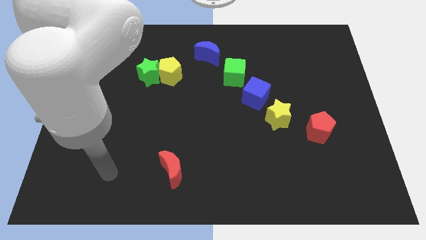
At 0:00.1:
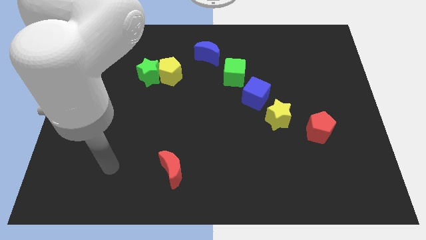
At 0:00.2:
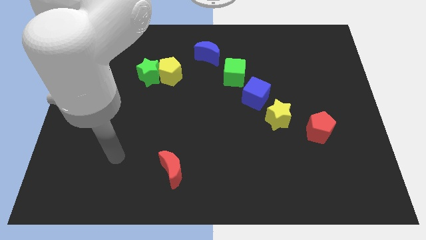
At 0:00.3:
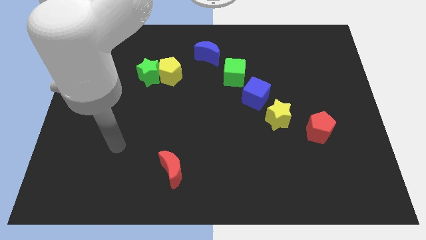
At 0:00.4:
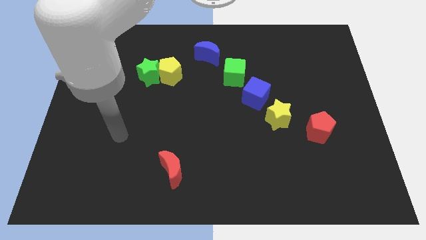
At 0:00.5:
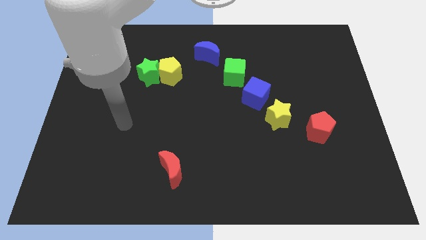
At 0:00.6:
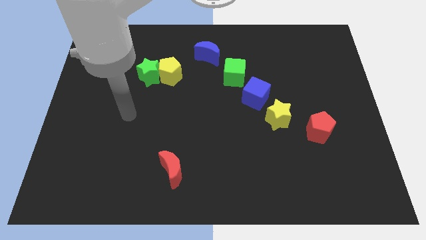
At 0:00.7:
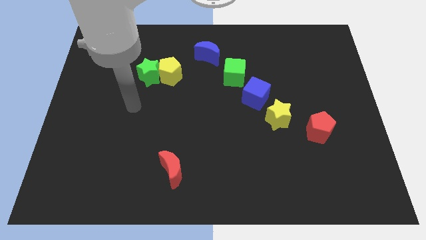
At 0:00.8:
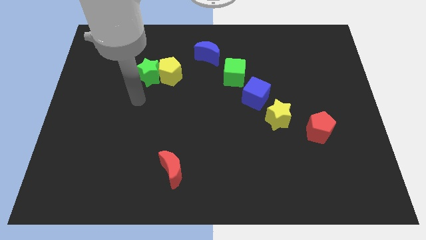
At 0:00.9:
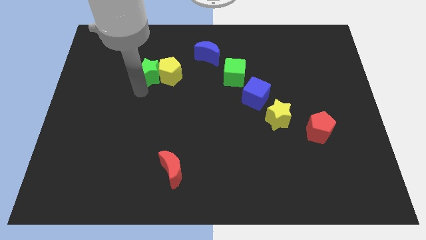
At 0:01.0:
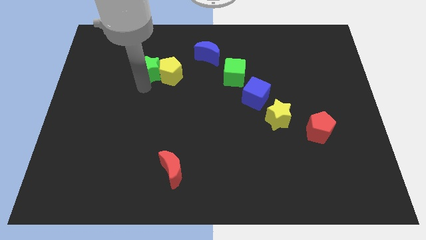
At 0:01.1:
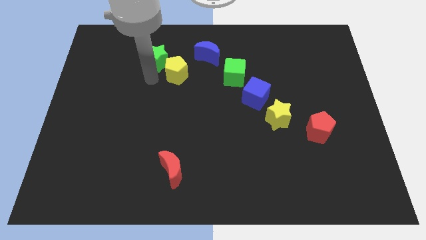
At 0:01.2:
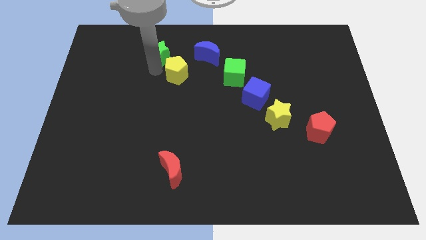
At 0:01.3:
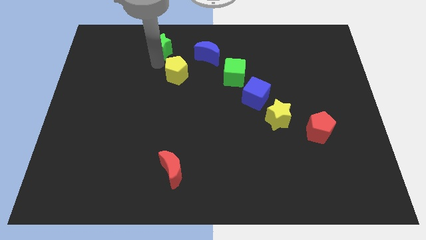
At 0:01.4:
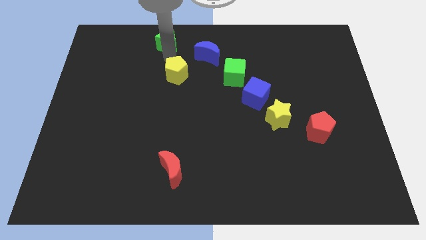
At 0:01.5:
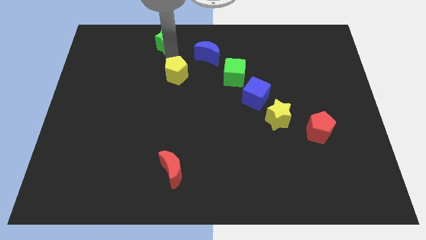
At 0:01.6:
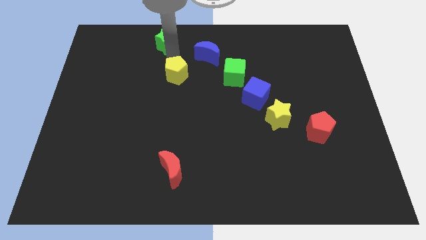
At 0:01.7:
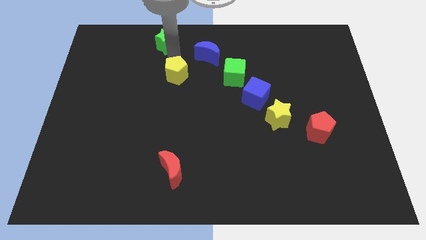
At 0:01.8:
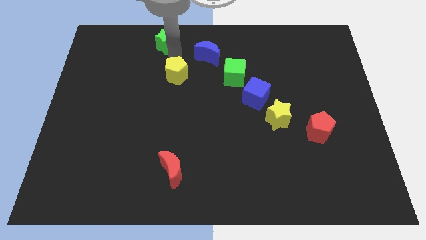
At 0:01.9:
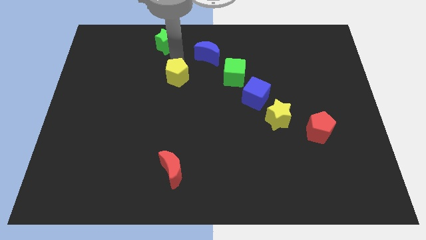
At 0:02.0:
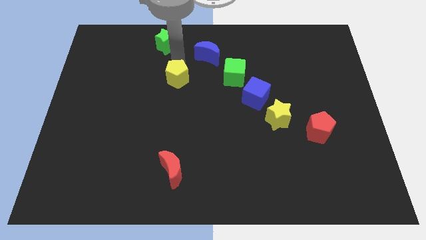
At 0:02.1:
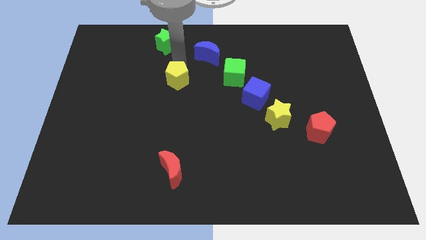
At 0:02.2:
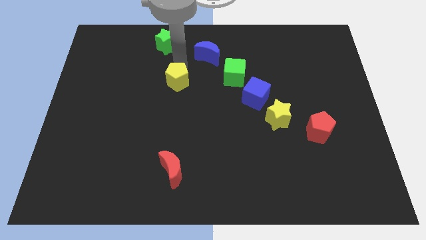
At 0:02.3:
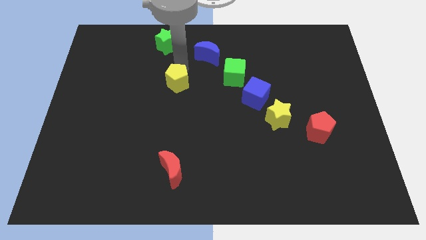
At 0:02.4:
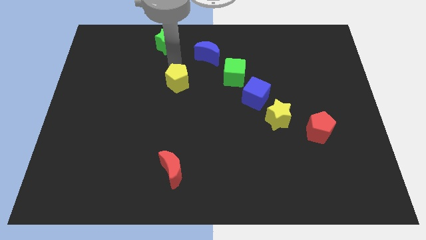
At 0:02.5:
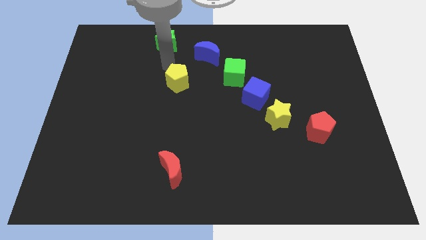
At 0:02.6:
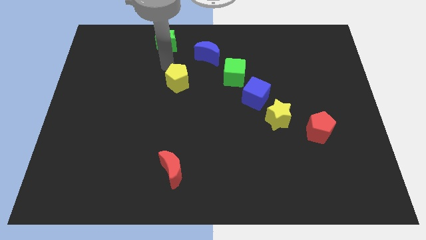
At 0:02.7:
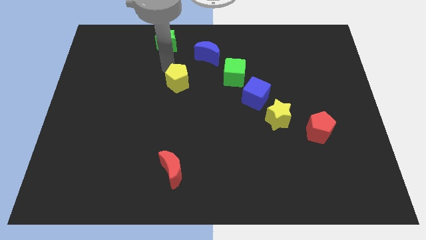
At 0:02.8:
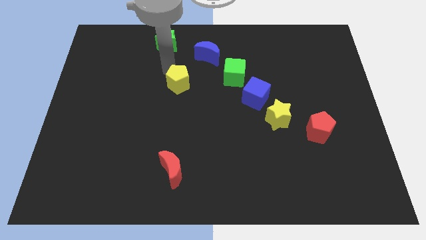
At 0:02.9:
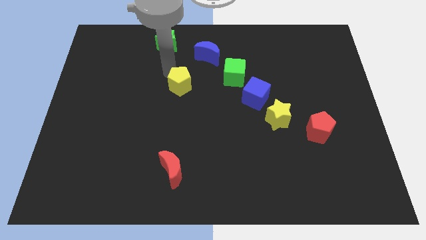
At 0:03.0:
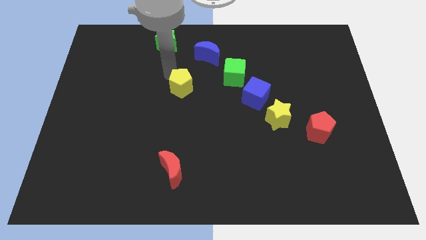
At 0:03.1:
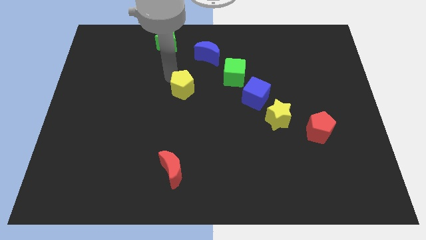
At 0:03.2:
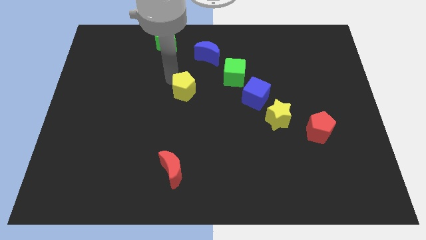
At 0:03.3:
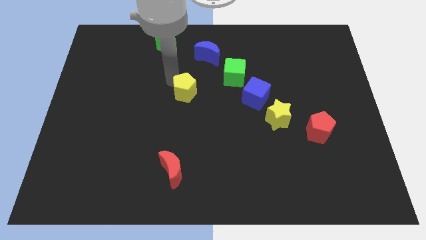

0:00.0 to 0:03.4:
slide the yellow pentagon a little bit down and to the right

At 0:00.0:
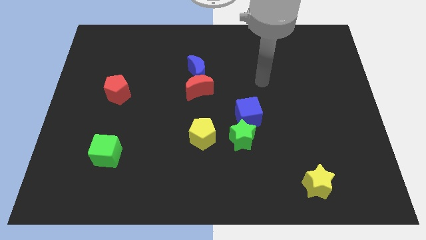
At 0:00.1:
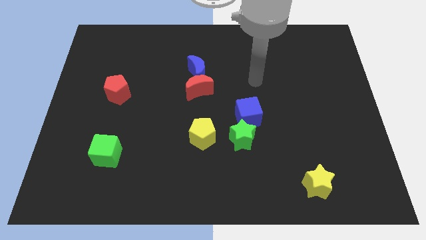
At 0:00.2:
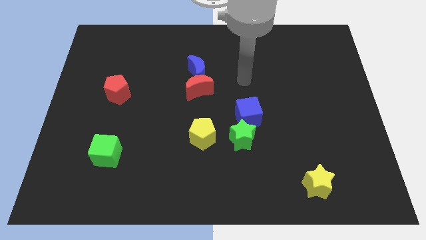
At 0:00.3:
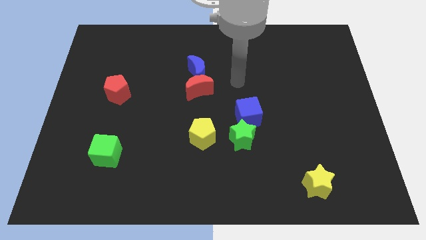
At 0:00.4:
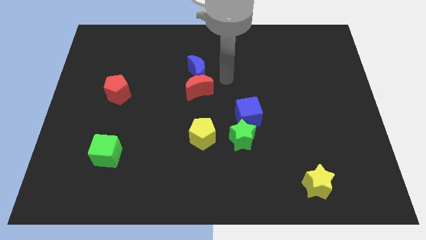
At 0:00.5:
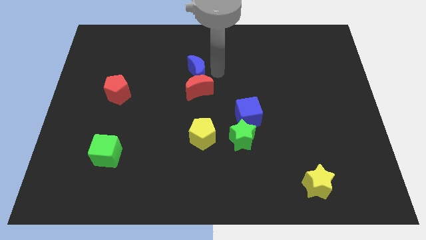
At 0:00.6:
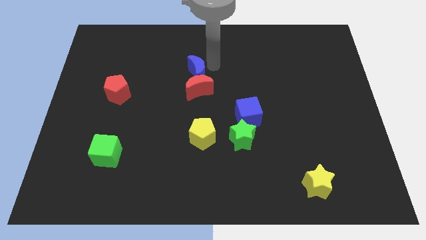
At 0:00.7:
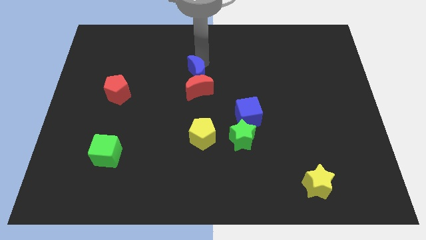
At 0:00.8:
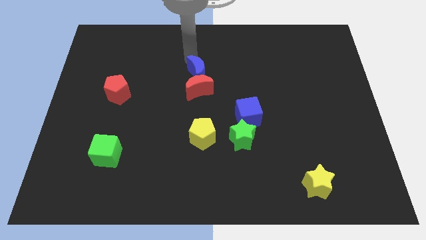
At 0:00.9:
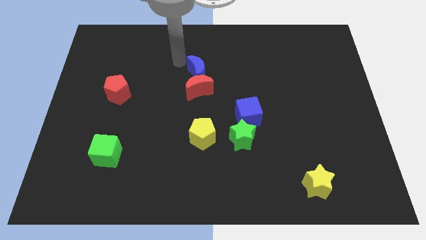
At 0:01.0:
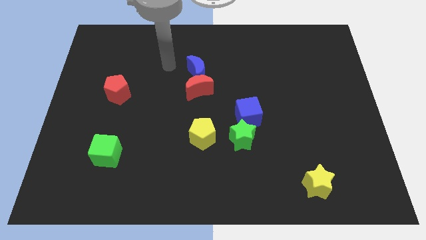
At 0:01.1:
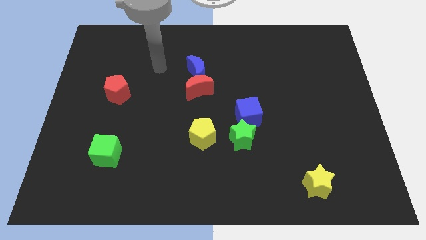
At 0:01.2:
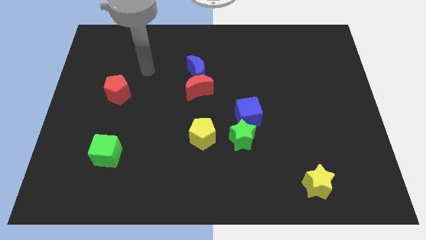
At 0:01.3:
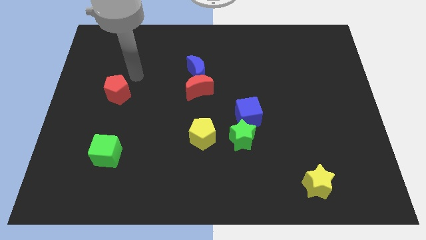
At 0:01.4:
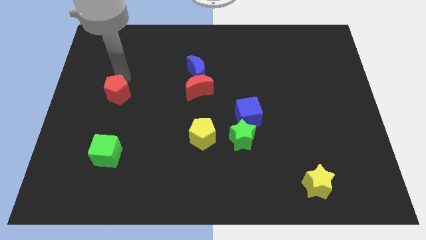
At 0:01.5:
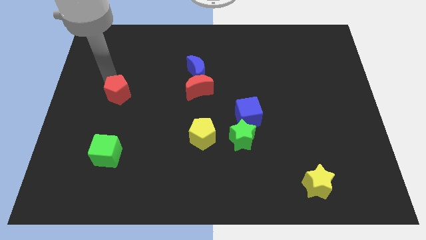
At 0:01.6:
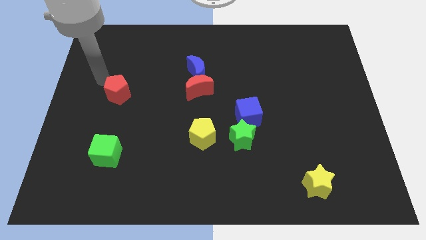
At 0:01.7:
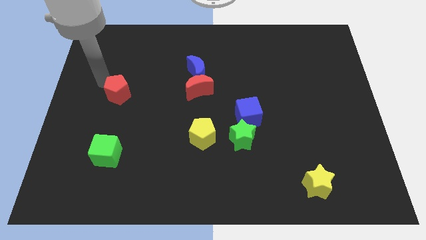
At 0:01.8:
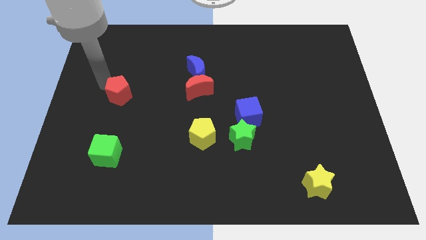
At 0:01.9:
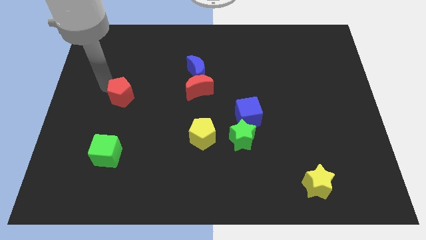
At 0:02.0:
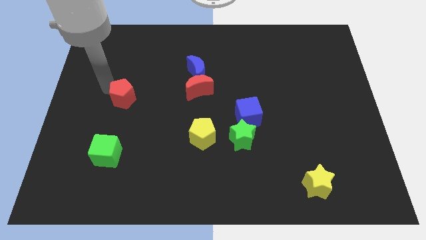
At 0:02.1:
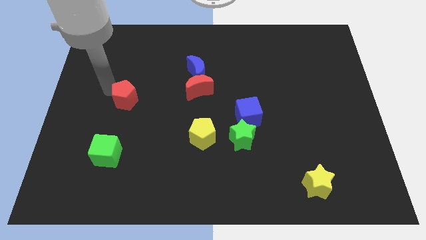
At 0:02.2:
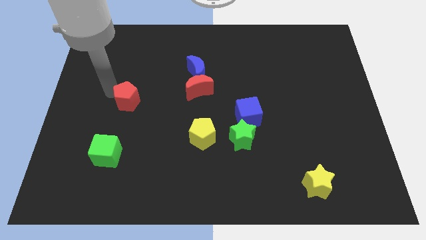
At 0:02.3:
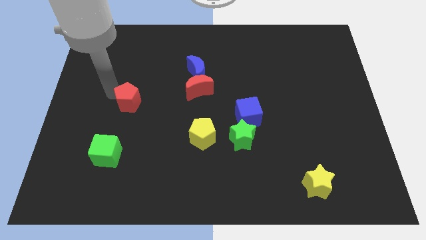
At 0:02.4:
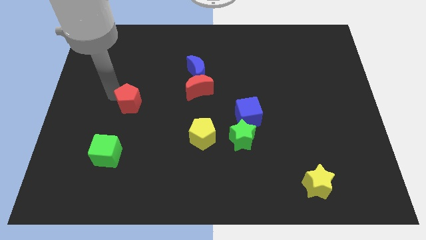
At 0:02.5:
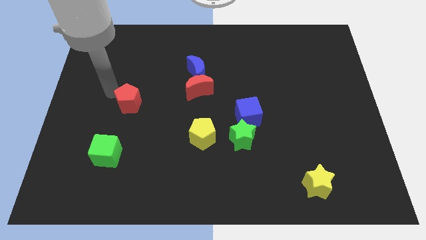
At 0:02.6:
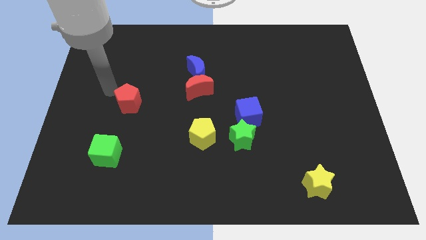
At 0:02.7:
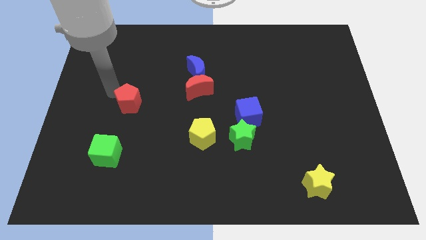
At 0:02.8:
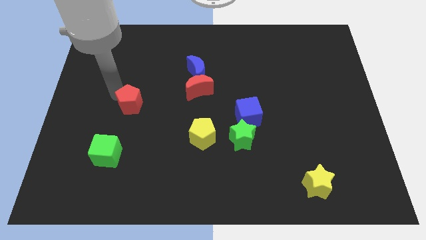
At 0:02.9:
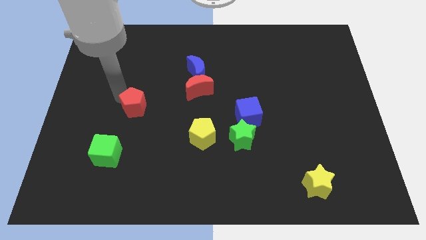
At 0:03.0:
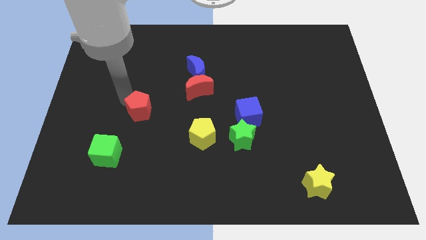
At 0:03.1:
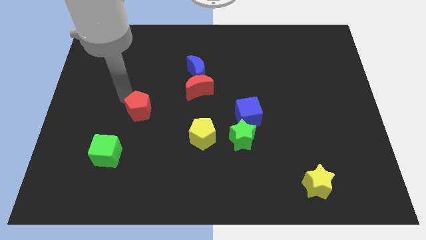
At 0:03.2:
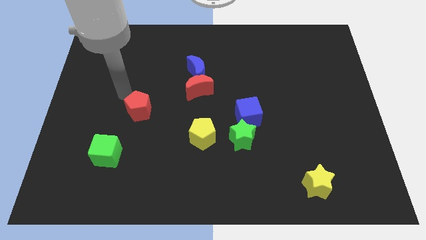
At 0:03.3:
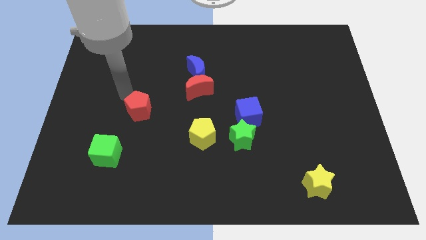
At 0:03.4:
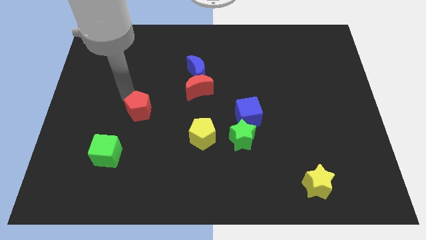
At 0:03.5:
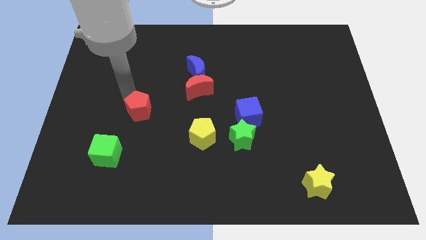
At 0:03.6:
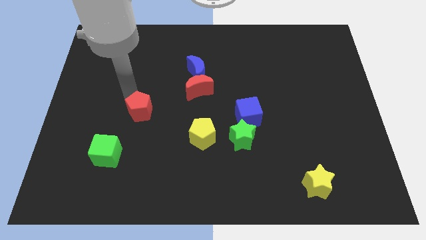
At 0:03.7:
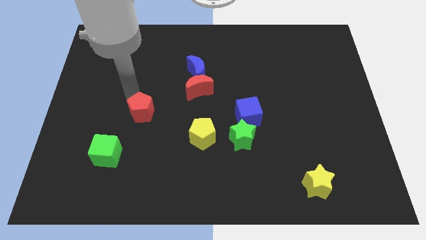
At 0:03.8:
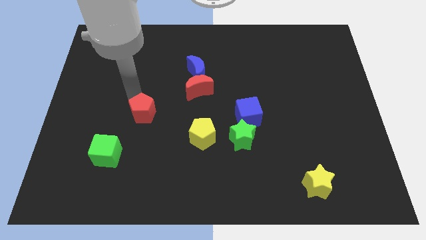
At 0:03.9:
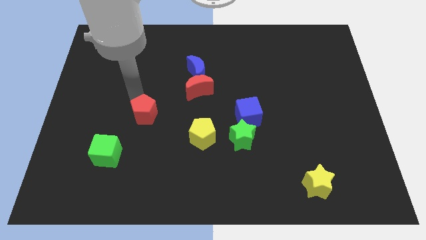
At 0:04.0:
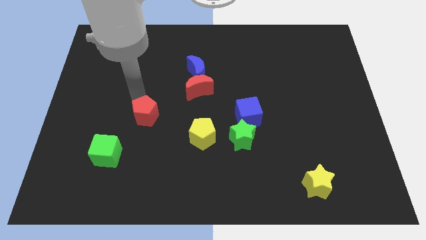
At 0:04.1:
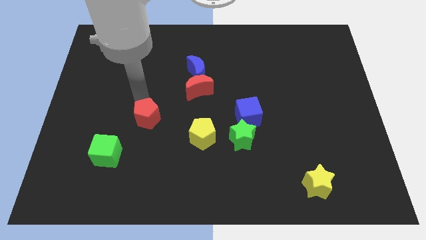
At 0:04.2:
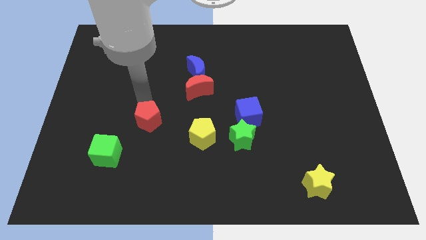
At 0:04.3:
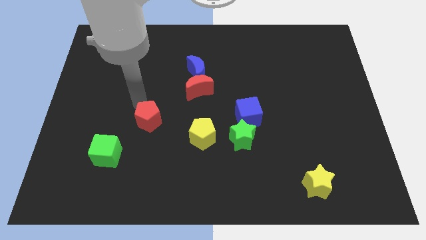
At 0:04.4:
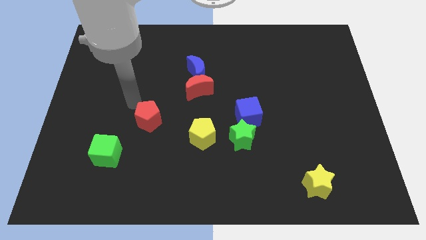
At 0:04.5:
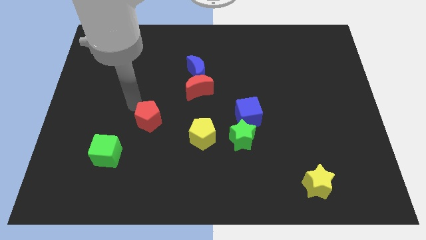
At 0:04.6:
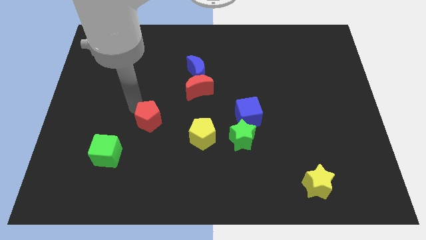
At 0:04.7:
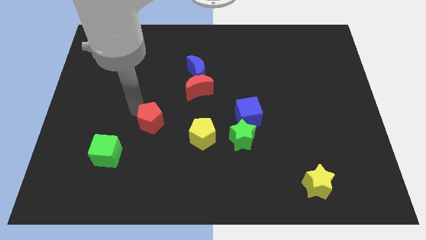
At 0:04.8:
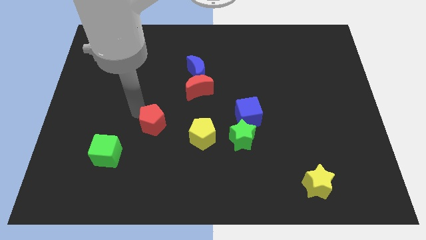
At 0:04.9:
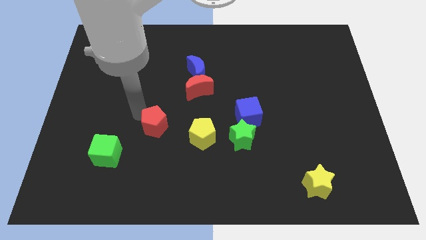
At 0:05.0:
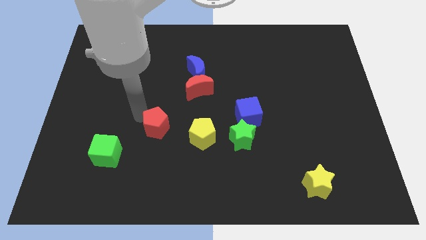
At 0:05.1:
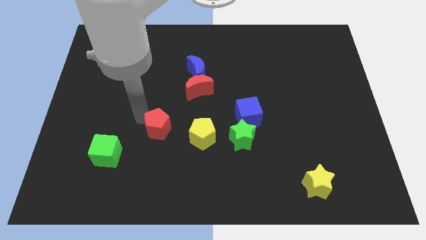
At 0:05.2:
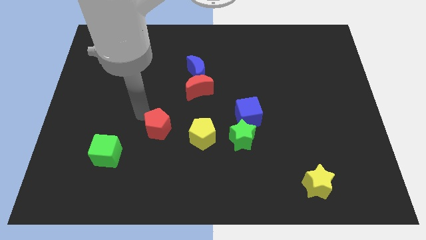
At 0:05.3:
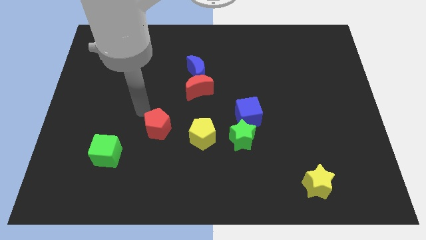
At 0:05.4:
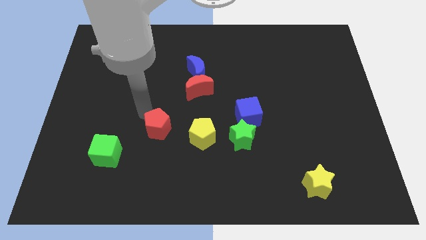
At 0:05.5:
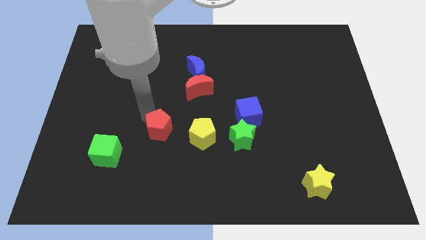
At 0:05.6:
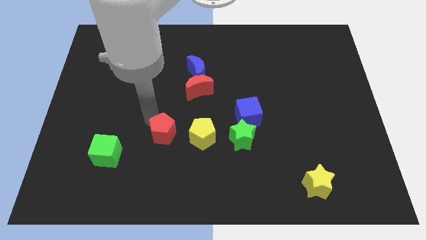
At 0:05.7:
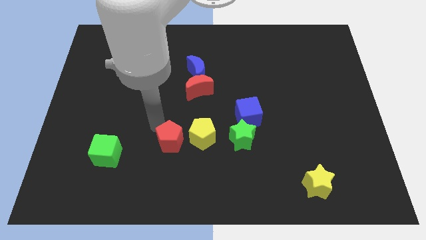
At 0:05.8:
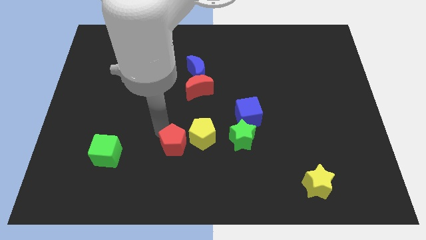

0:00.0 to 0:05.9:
push the red pentagon down and right diagonally
